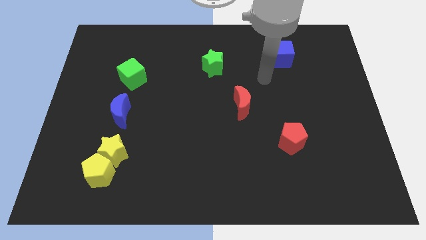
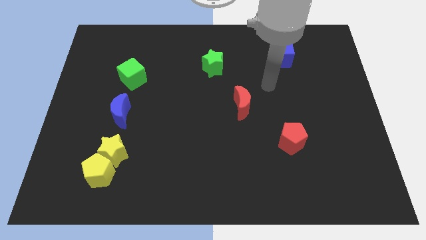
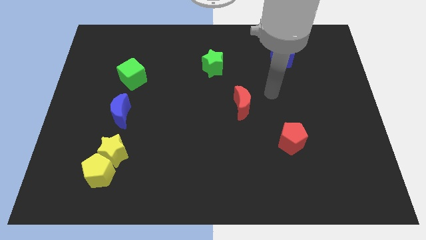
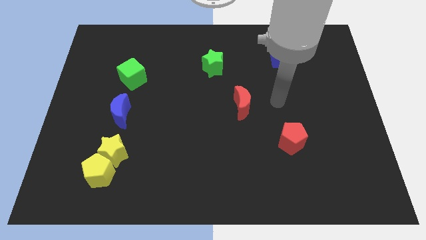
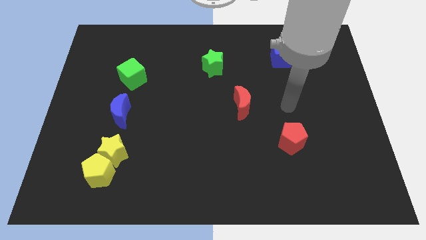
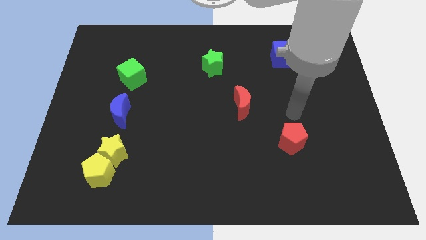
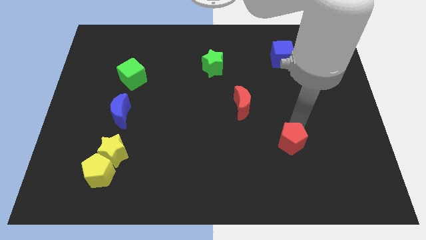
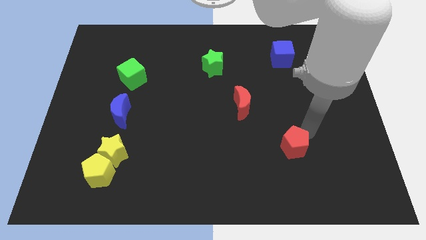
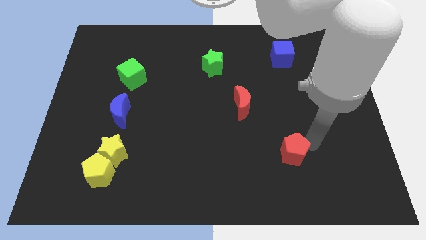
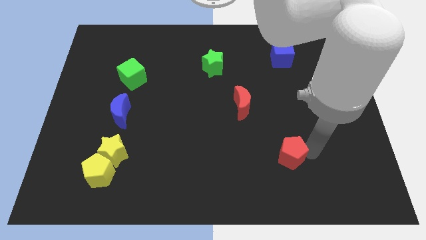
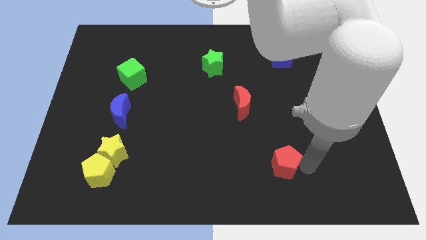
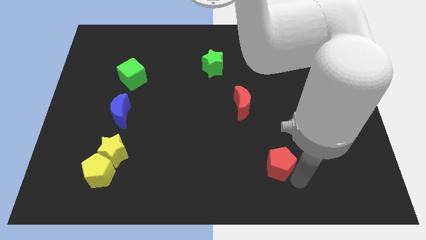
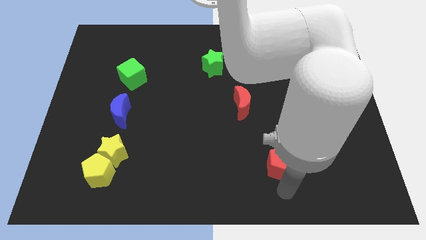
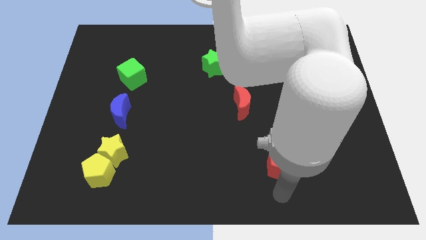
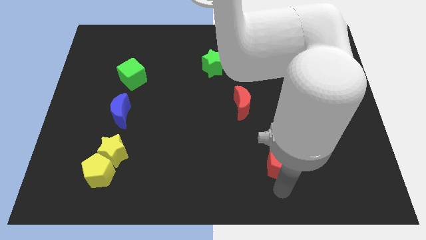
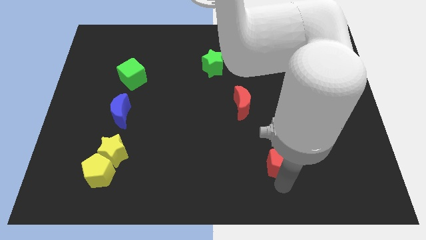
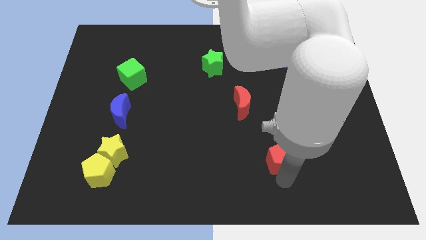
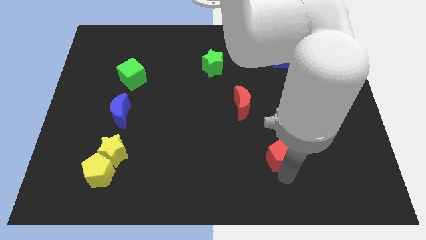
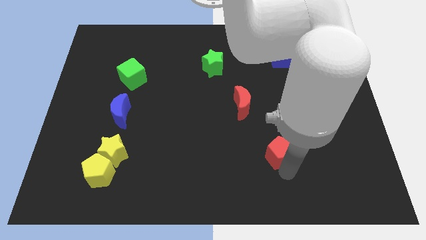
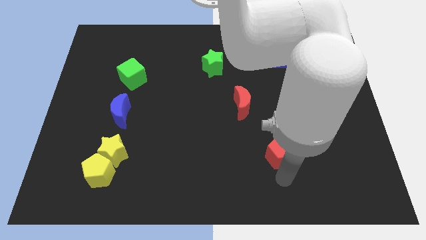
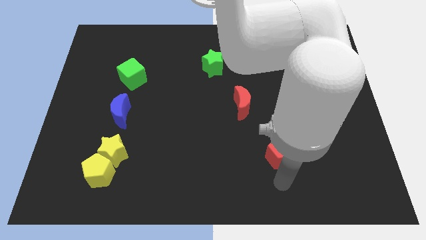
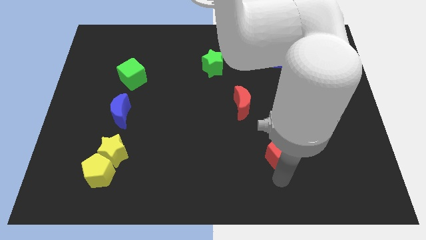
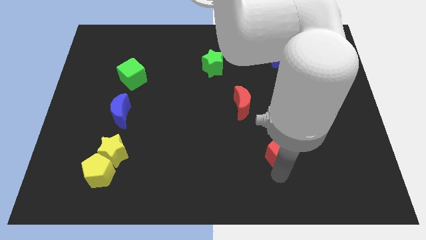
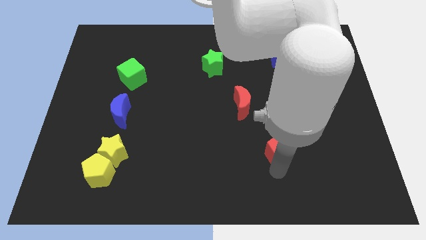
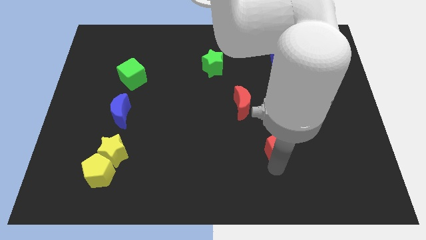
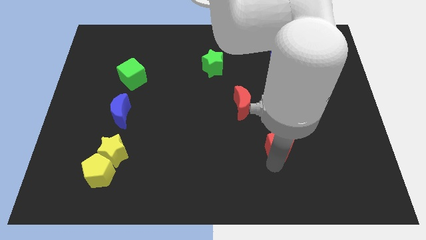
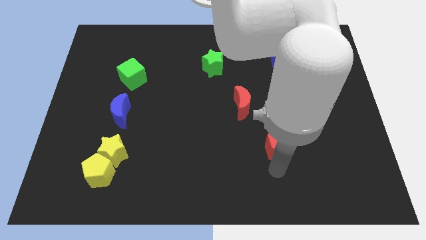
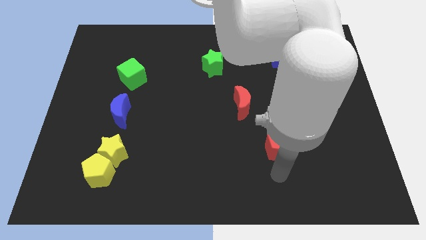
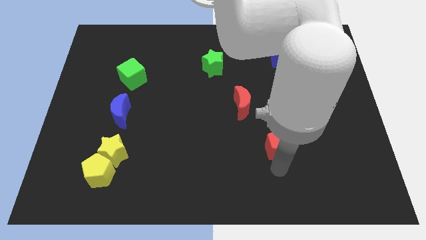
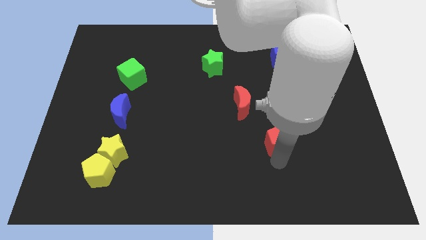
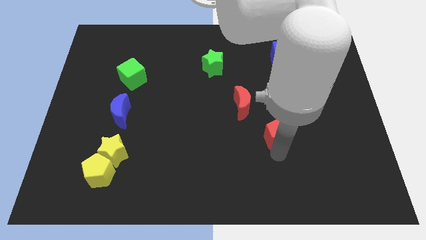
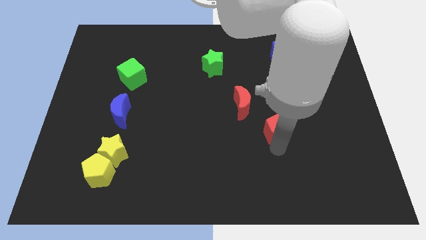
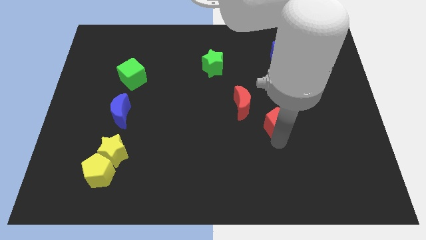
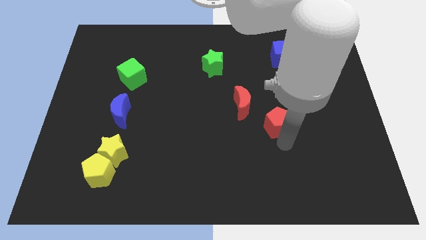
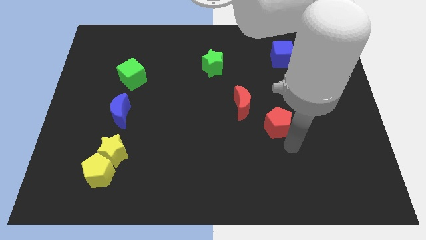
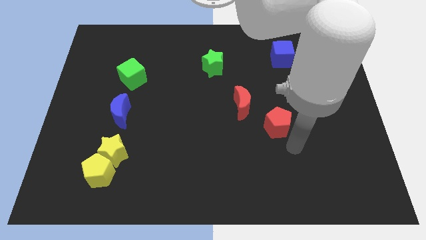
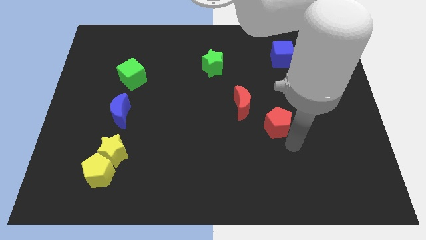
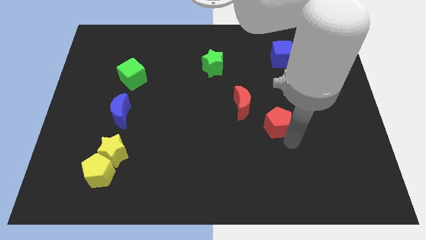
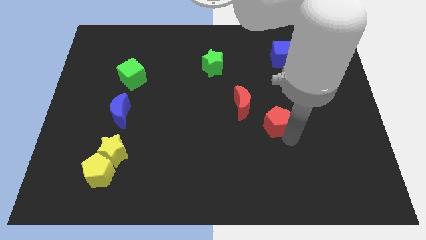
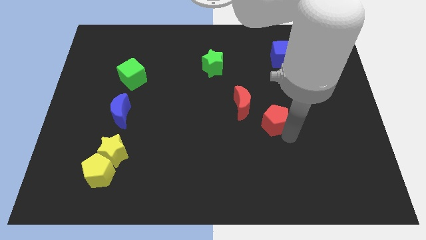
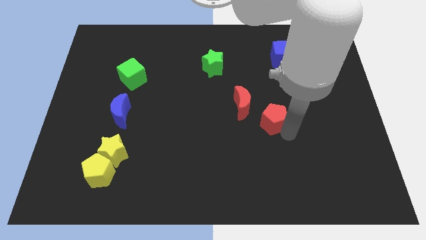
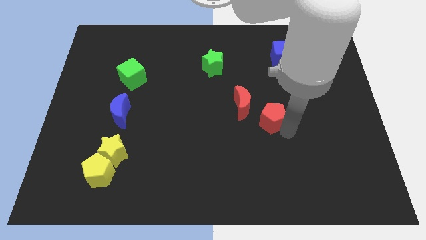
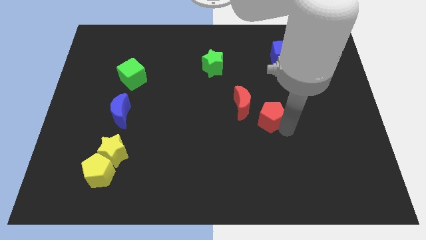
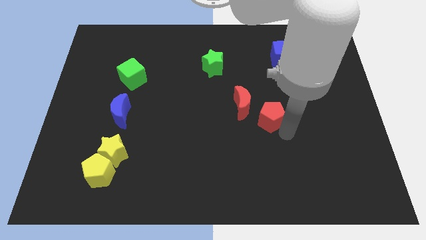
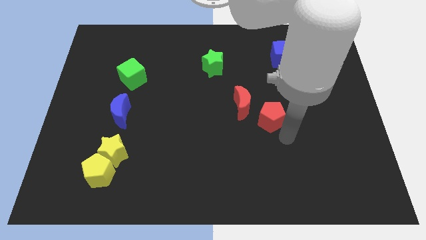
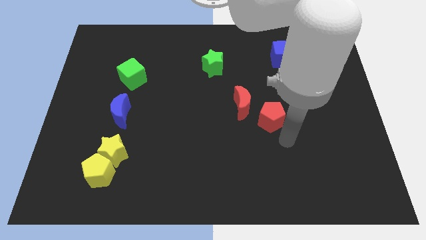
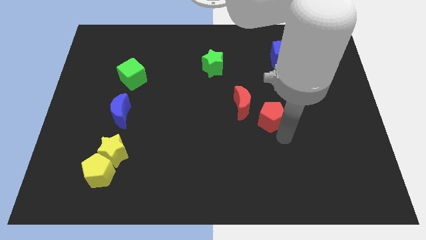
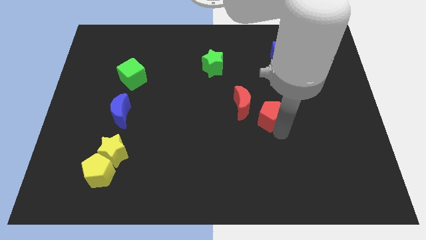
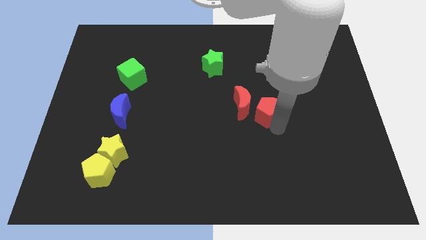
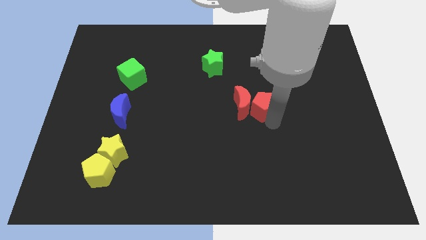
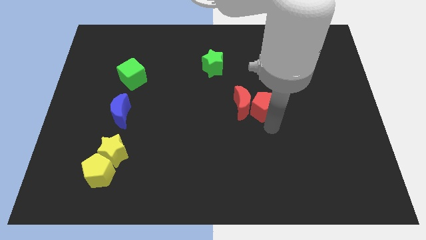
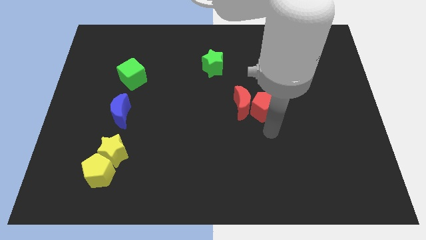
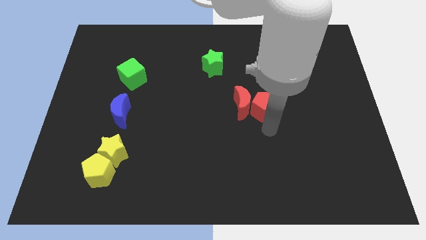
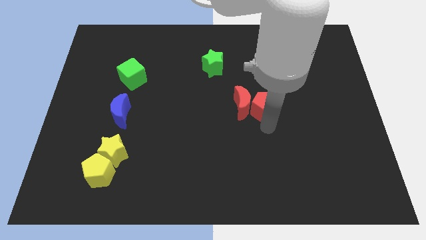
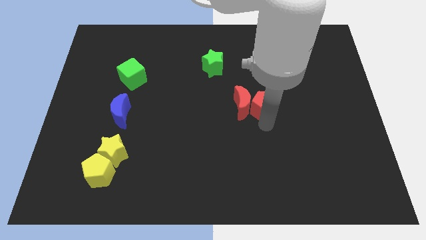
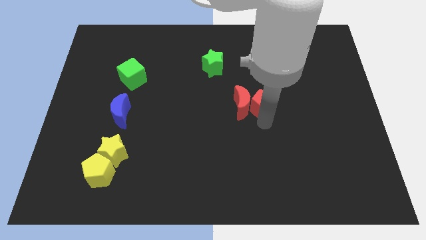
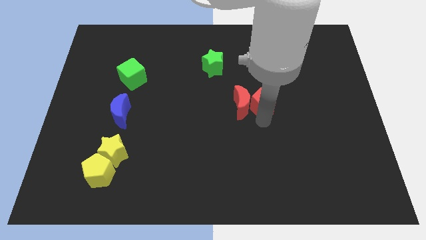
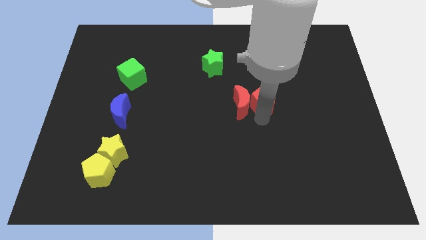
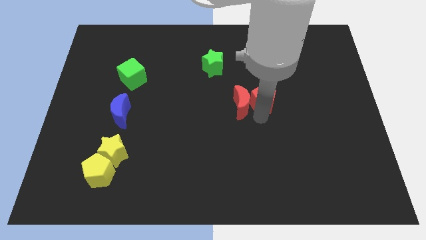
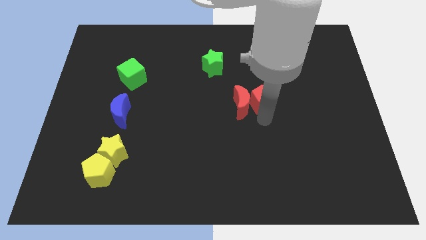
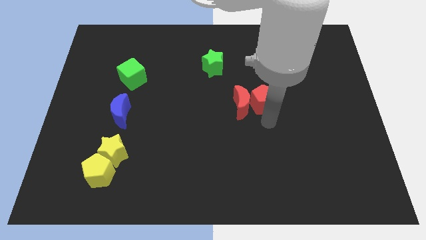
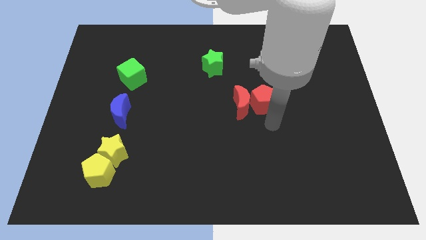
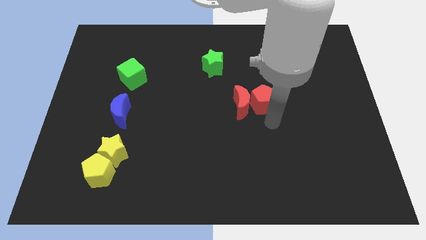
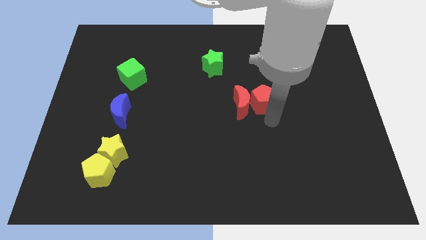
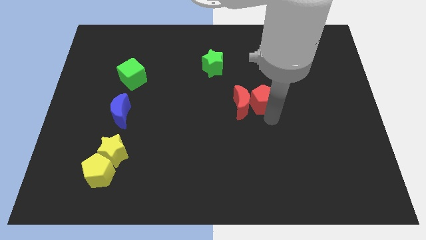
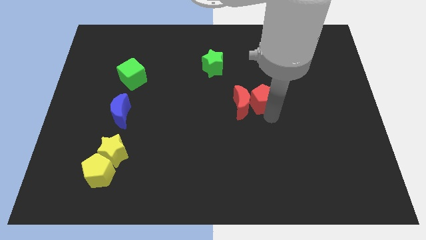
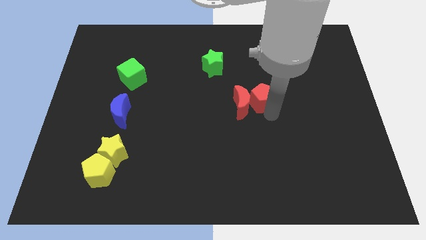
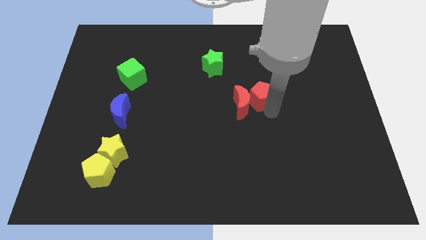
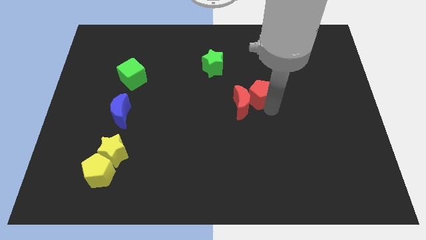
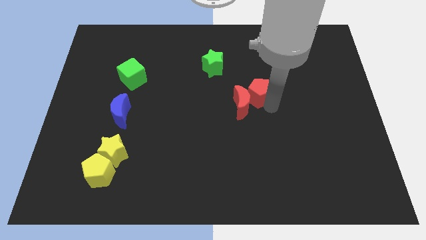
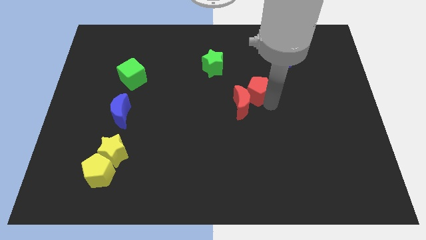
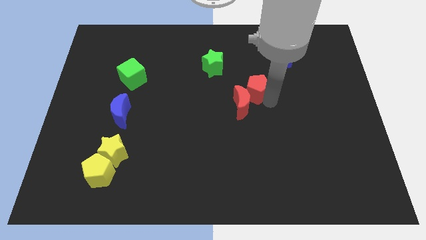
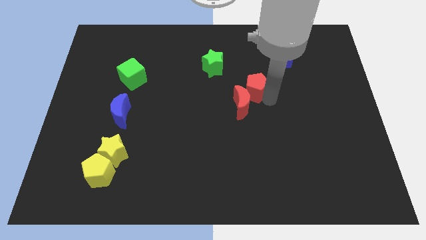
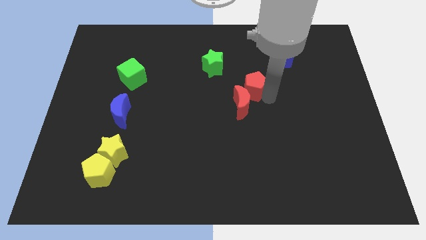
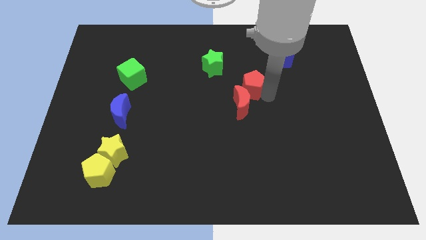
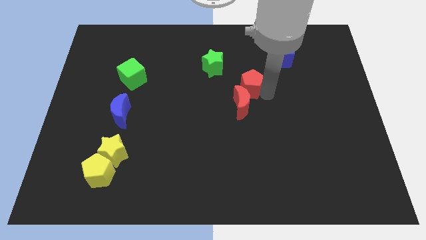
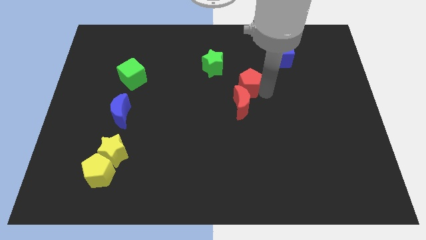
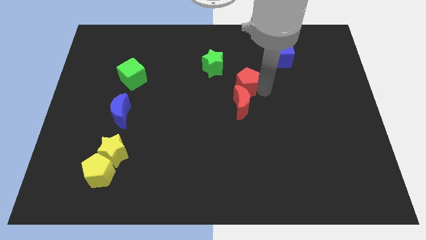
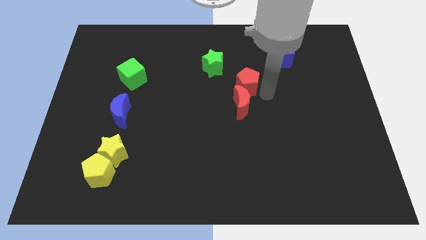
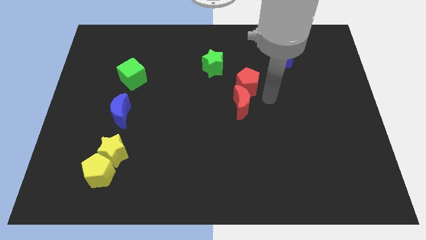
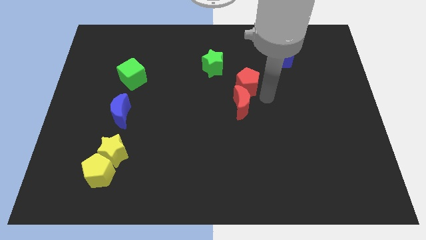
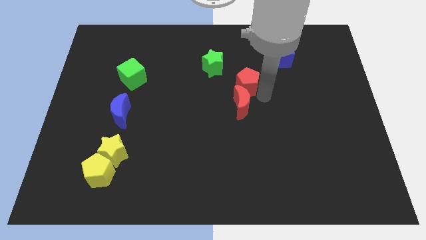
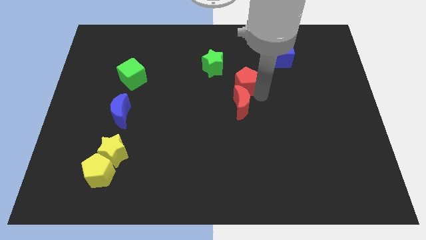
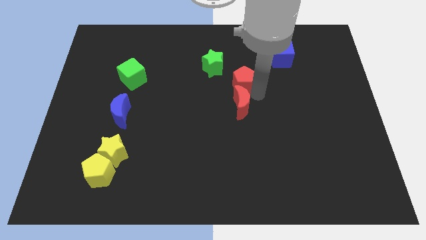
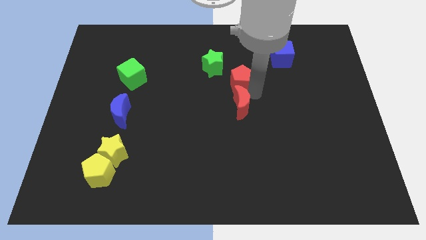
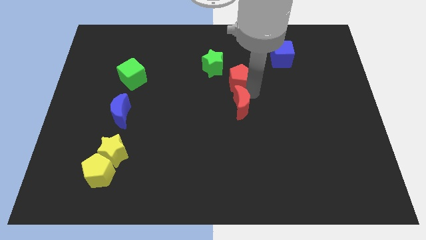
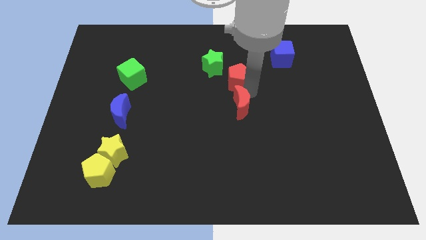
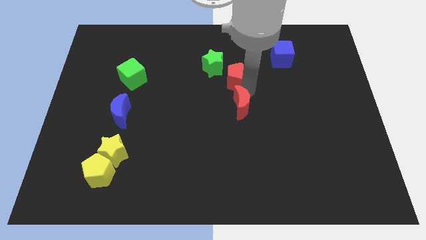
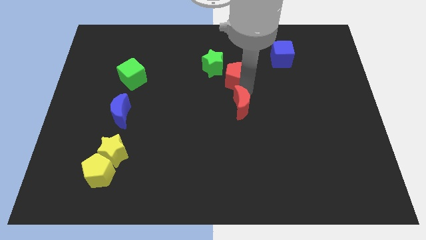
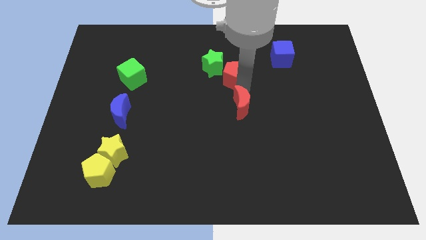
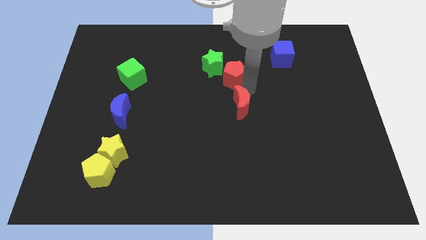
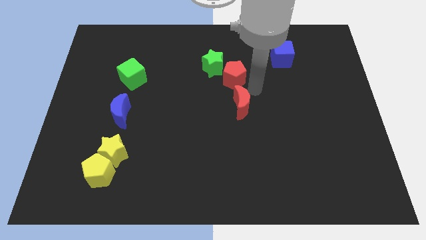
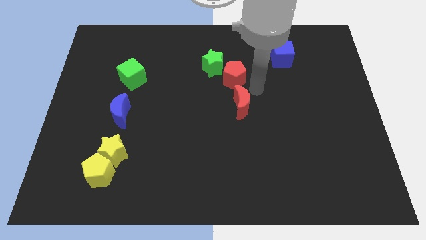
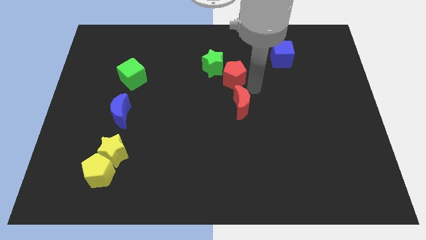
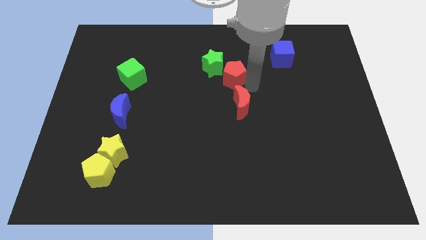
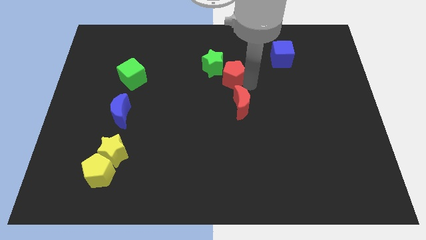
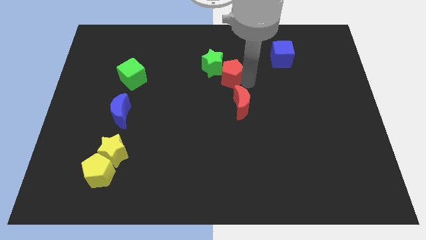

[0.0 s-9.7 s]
move the red pentagon towards the green star
